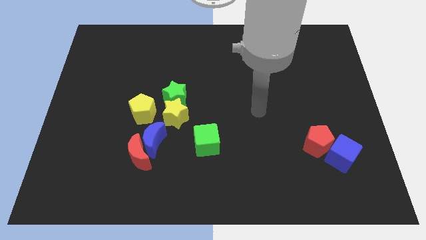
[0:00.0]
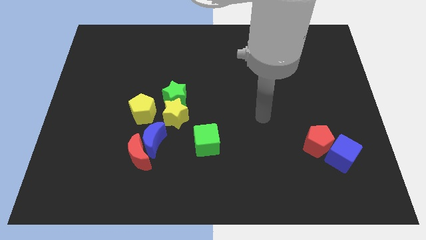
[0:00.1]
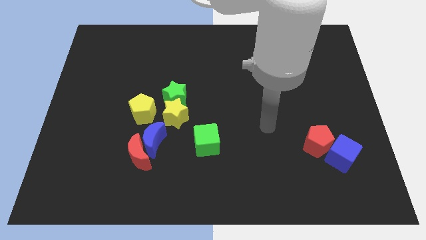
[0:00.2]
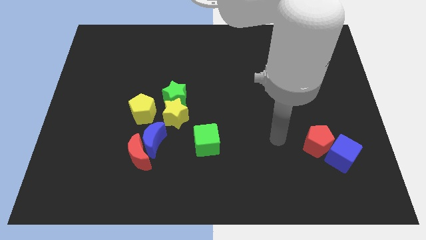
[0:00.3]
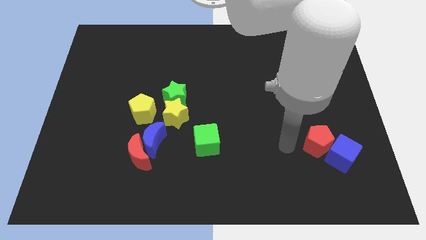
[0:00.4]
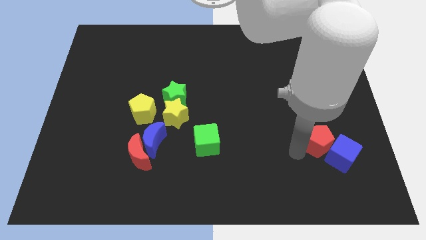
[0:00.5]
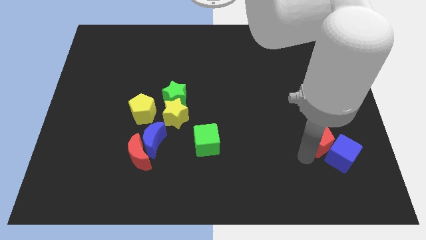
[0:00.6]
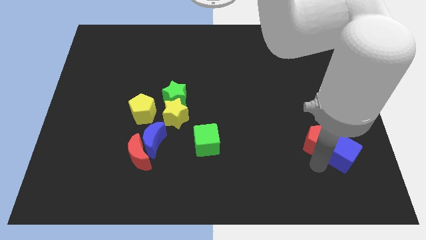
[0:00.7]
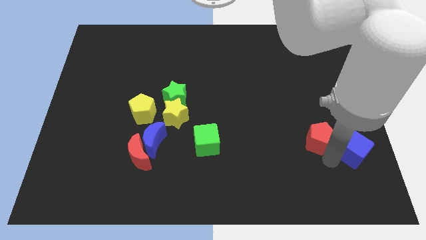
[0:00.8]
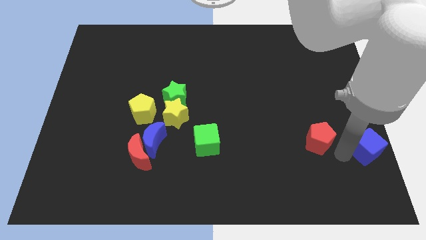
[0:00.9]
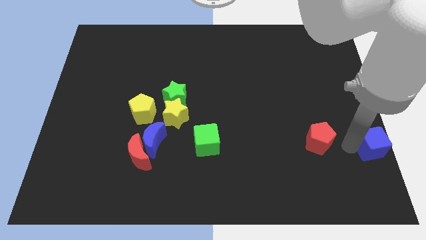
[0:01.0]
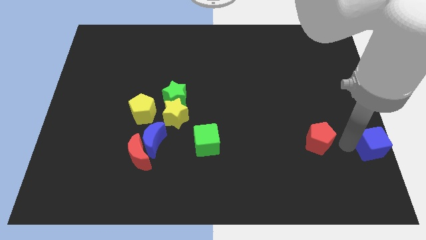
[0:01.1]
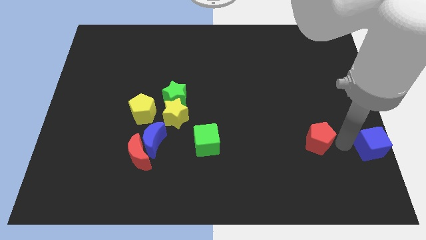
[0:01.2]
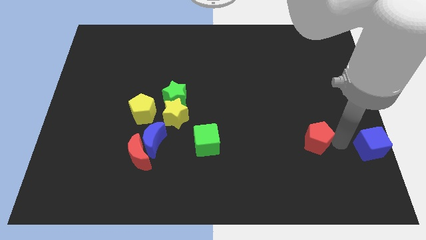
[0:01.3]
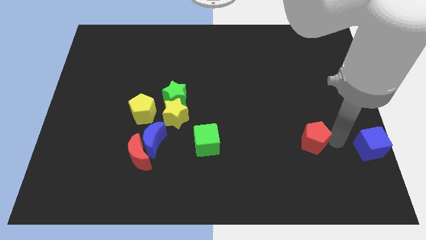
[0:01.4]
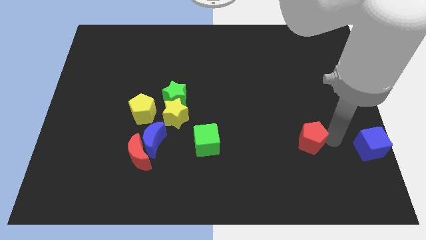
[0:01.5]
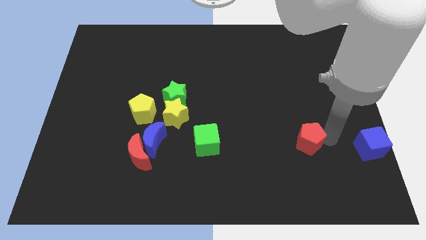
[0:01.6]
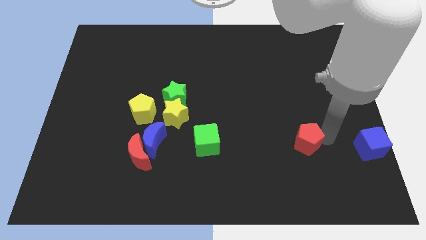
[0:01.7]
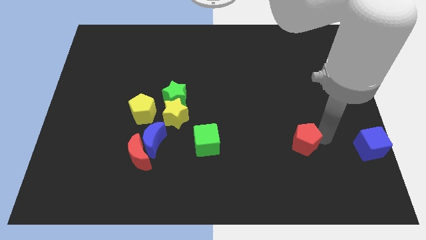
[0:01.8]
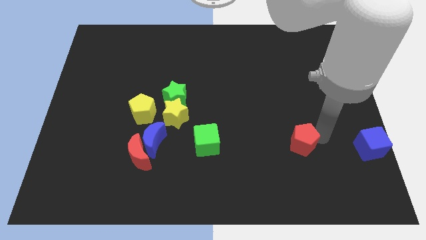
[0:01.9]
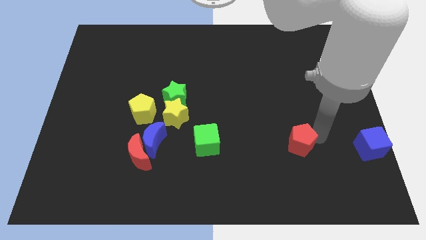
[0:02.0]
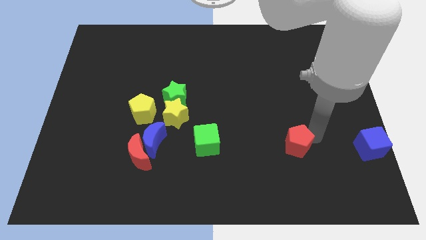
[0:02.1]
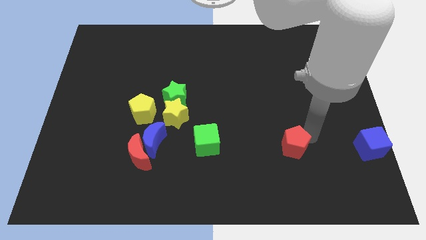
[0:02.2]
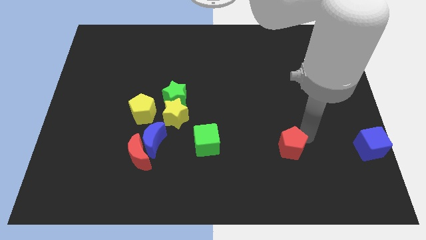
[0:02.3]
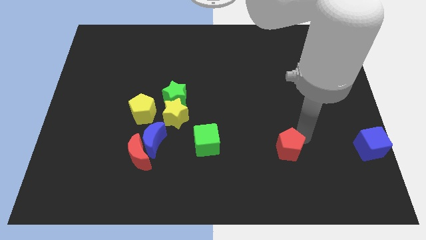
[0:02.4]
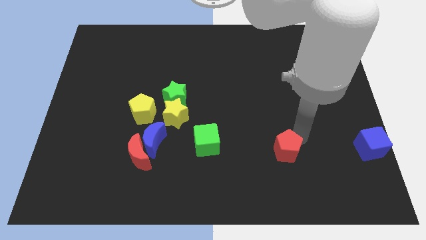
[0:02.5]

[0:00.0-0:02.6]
slightly push the red pentagon left

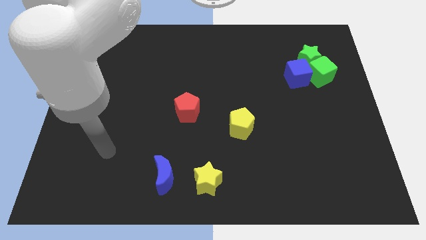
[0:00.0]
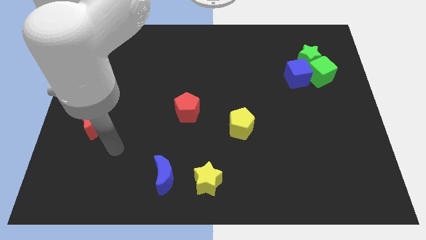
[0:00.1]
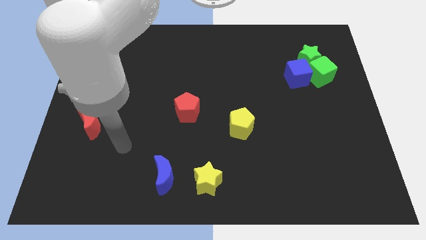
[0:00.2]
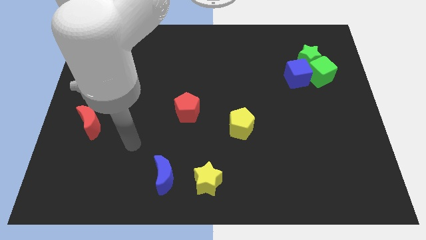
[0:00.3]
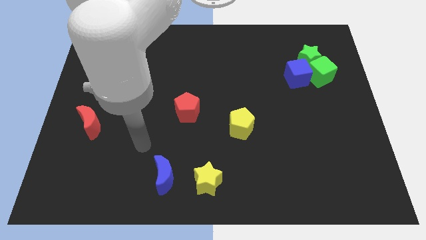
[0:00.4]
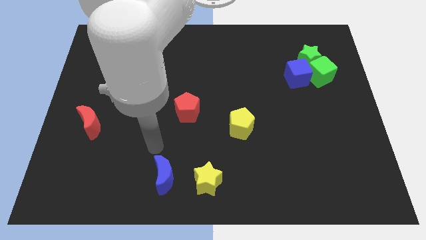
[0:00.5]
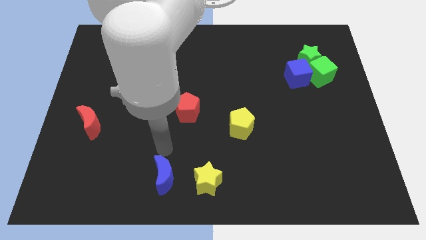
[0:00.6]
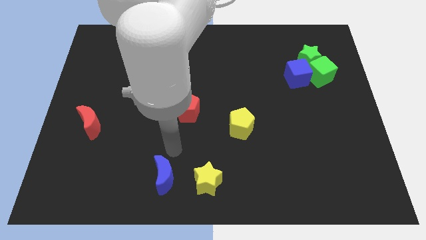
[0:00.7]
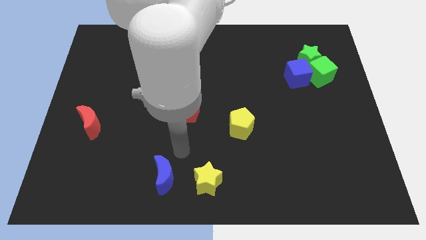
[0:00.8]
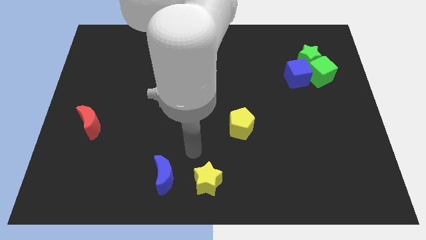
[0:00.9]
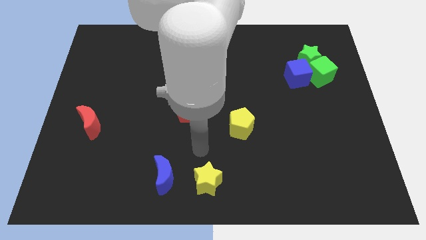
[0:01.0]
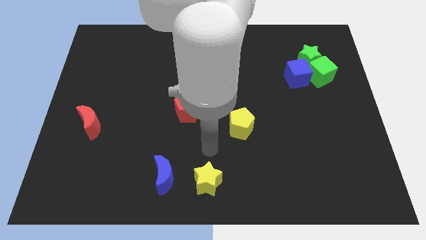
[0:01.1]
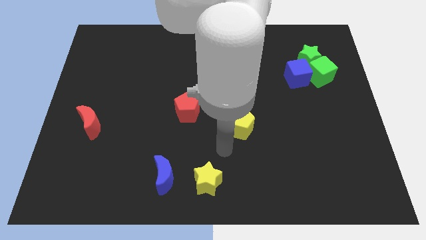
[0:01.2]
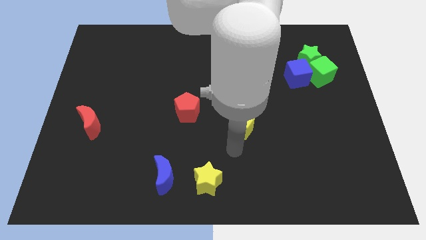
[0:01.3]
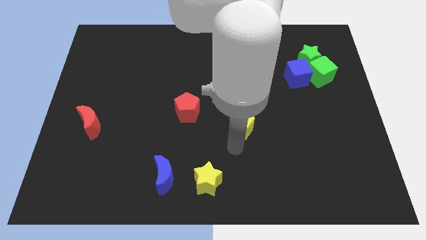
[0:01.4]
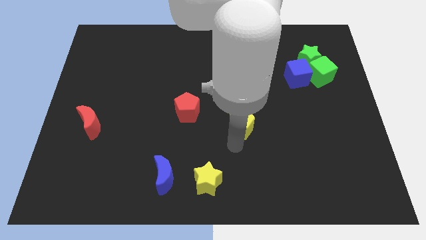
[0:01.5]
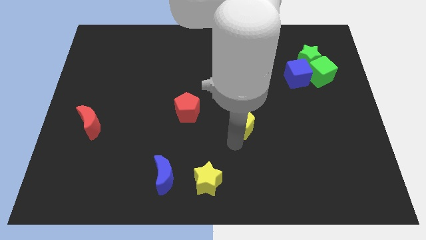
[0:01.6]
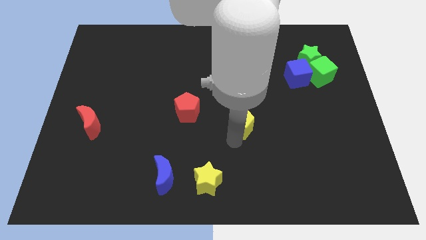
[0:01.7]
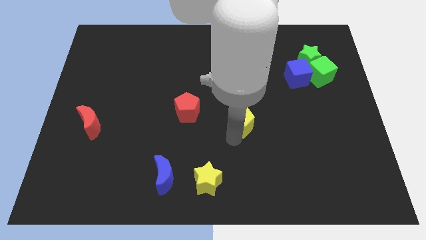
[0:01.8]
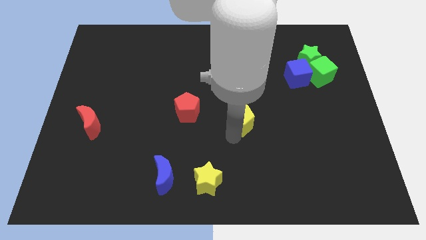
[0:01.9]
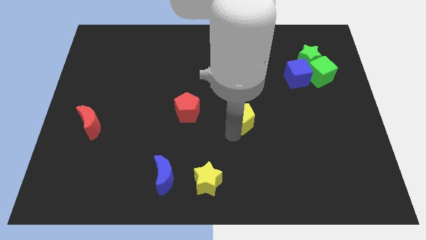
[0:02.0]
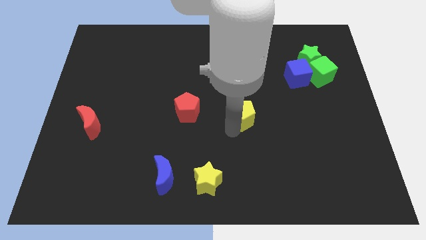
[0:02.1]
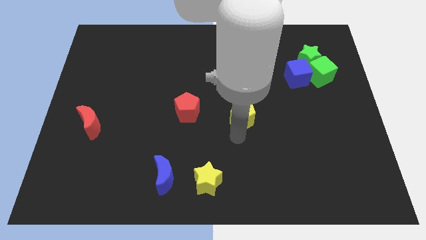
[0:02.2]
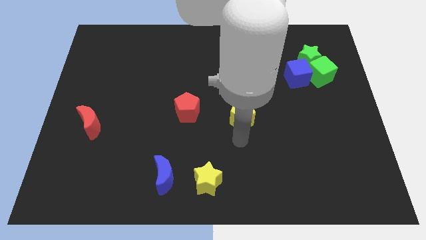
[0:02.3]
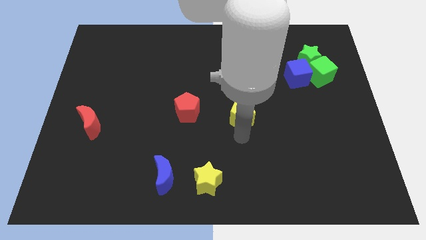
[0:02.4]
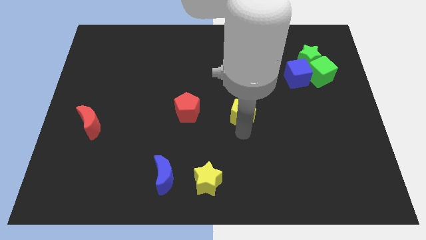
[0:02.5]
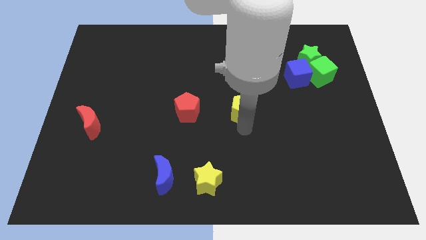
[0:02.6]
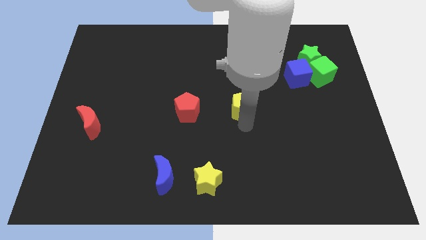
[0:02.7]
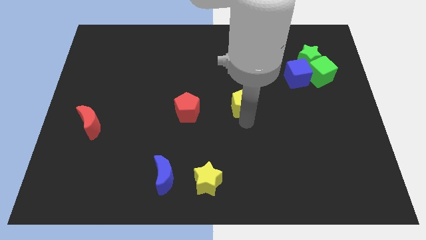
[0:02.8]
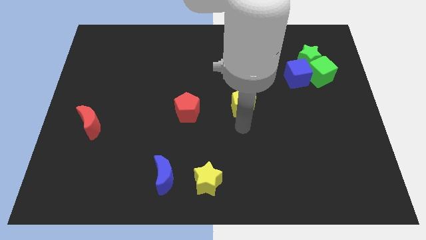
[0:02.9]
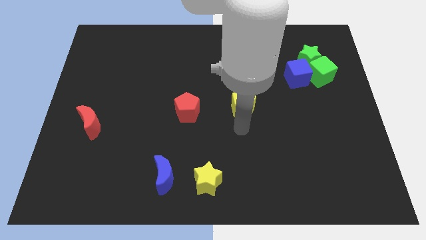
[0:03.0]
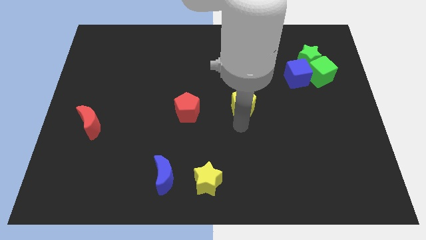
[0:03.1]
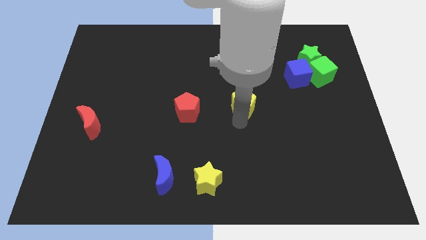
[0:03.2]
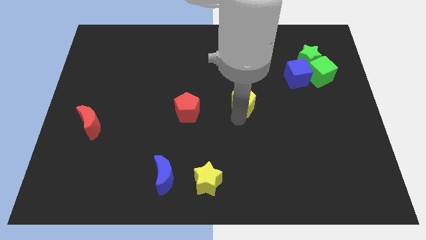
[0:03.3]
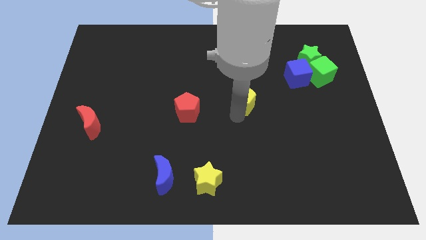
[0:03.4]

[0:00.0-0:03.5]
slightly move the yellow pentagon up

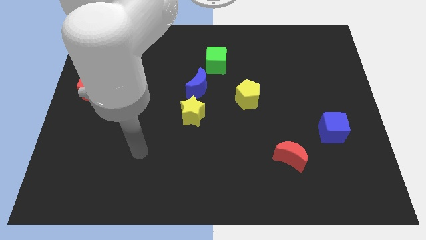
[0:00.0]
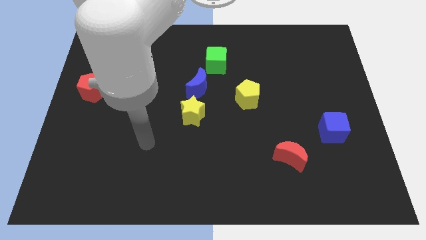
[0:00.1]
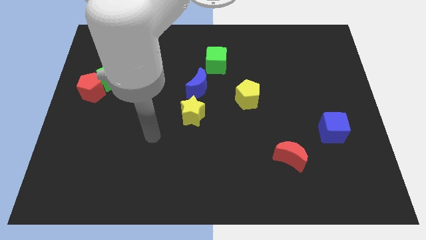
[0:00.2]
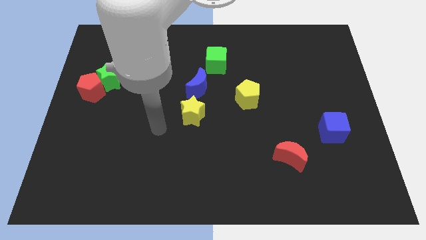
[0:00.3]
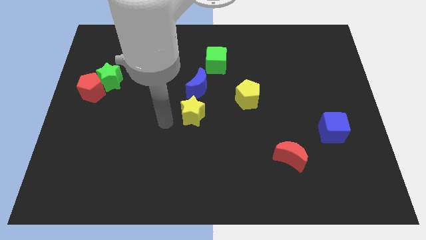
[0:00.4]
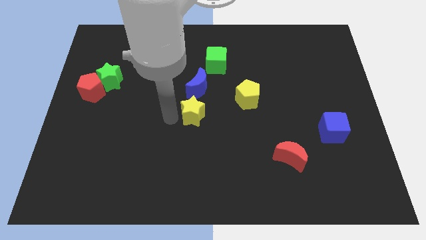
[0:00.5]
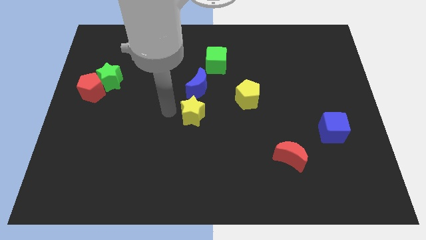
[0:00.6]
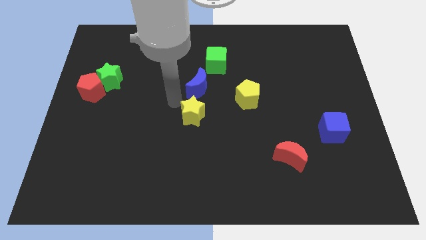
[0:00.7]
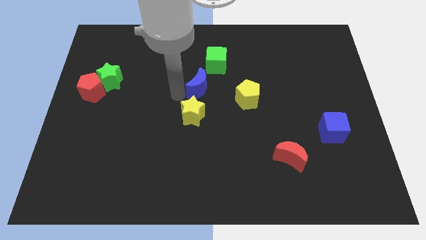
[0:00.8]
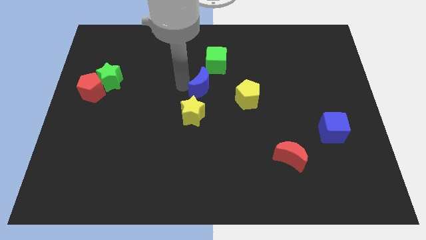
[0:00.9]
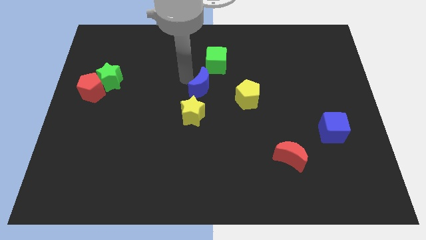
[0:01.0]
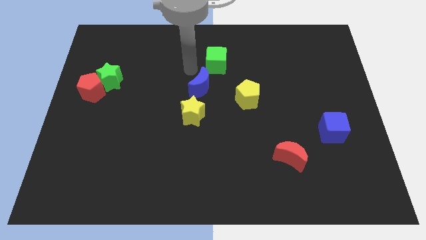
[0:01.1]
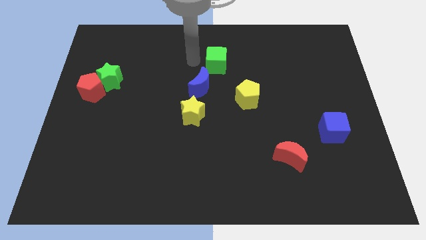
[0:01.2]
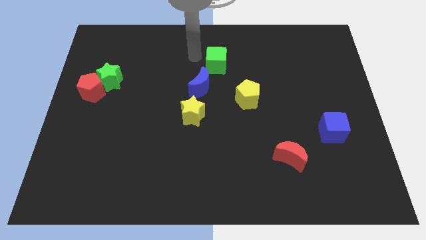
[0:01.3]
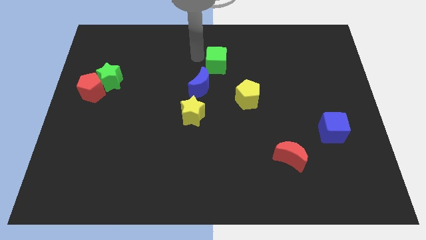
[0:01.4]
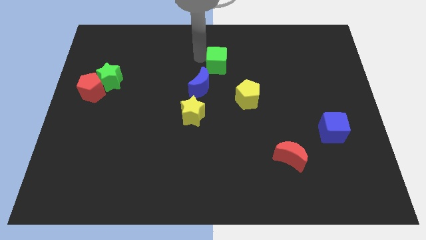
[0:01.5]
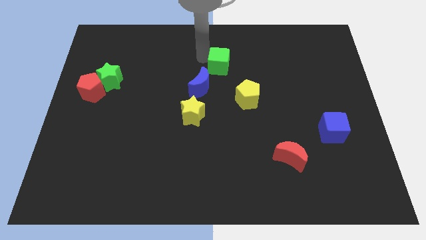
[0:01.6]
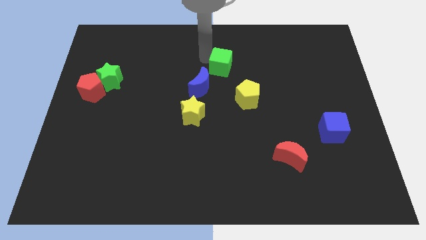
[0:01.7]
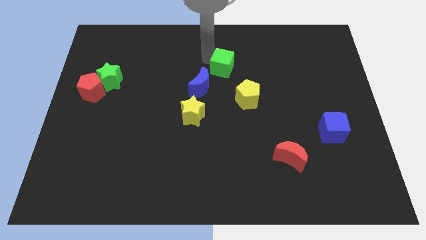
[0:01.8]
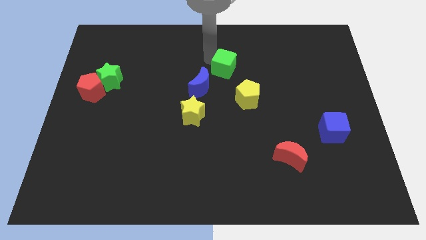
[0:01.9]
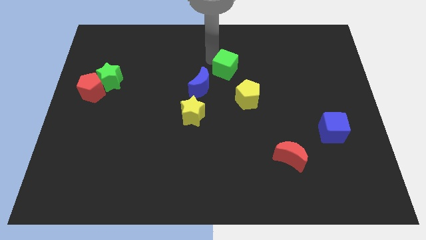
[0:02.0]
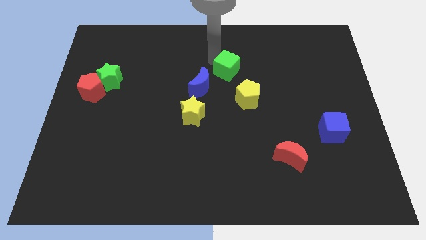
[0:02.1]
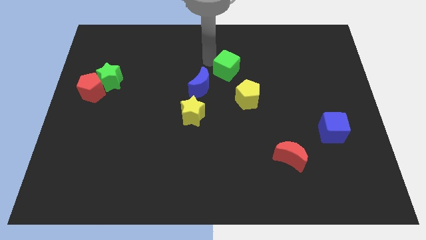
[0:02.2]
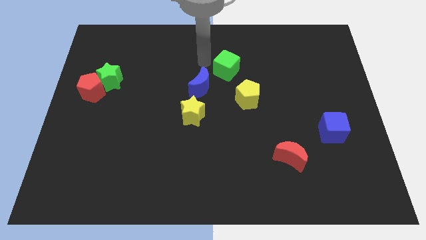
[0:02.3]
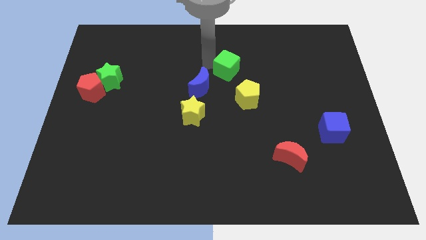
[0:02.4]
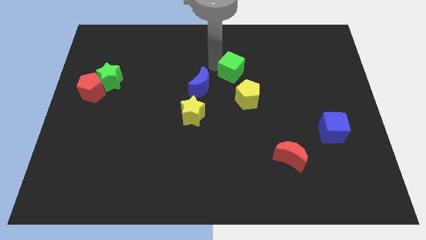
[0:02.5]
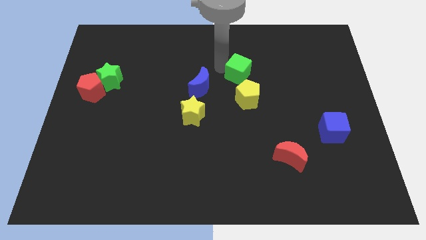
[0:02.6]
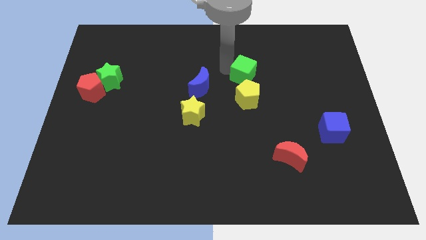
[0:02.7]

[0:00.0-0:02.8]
slide the green cube a little downwards and then to the right
